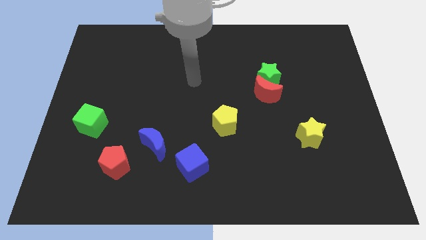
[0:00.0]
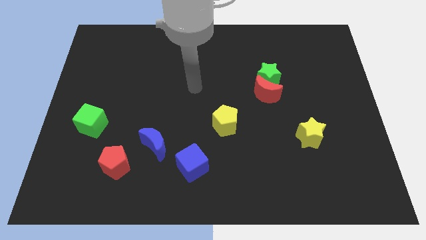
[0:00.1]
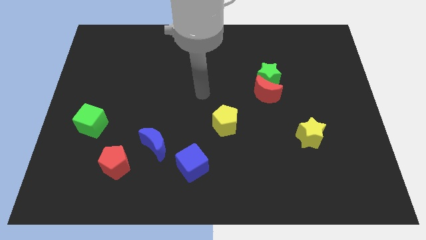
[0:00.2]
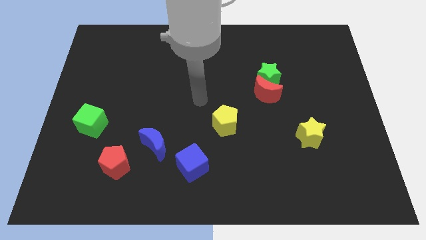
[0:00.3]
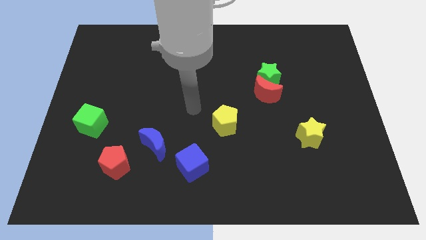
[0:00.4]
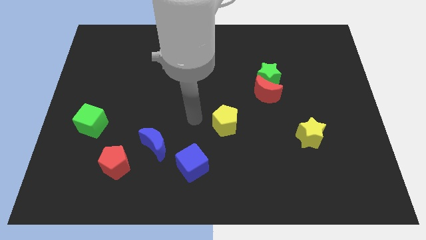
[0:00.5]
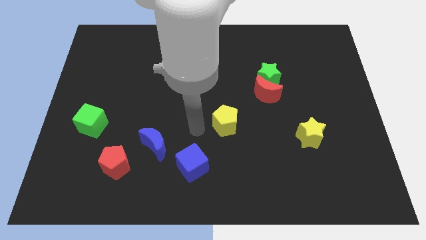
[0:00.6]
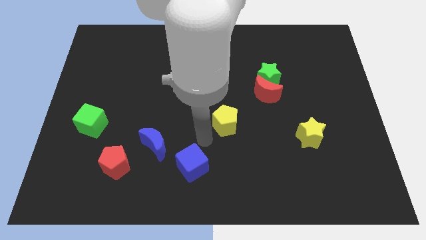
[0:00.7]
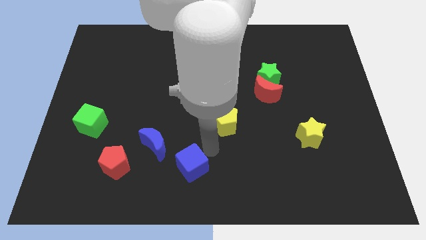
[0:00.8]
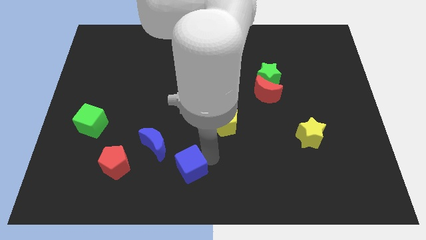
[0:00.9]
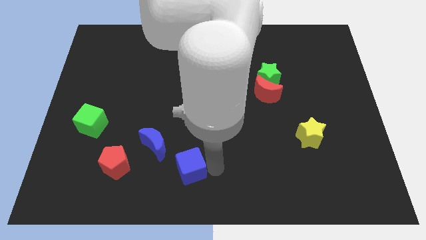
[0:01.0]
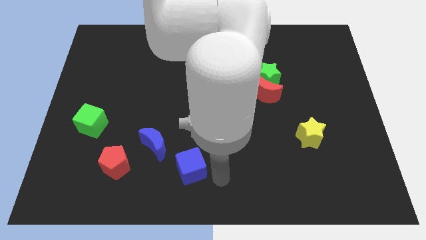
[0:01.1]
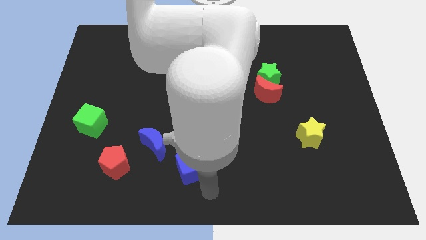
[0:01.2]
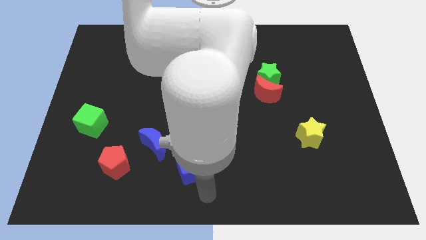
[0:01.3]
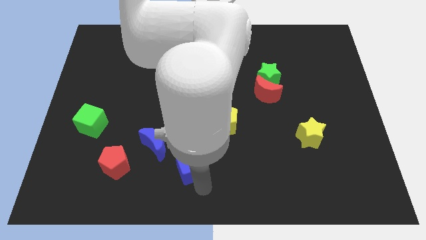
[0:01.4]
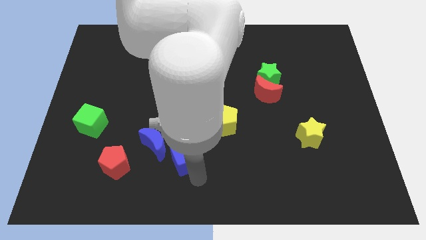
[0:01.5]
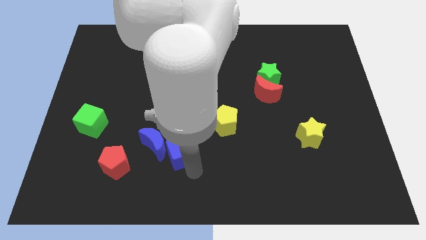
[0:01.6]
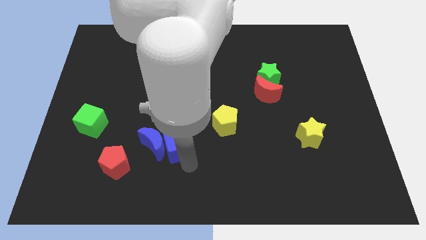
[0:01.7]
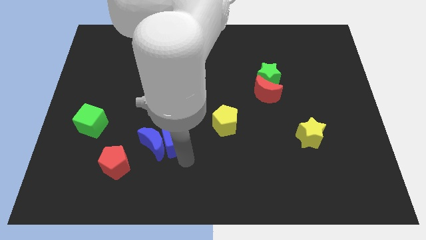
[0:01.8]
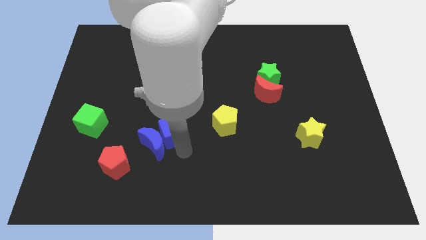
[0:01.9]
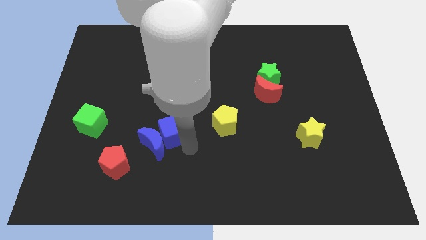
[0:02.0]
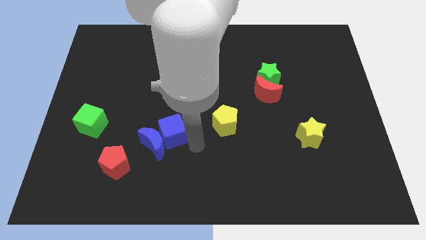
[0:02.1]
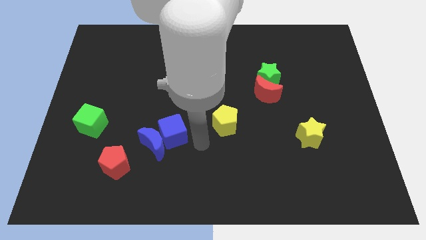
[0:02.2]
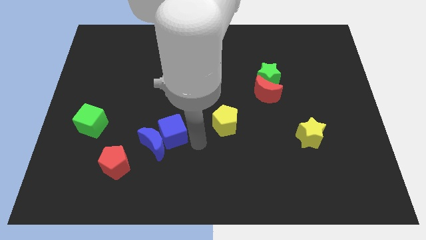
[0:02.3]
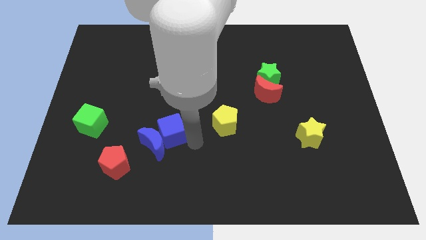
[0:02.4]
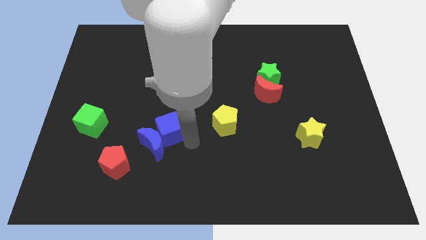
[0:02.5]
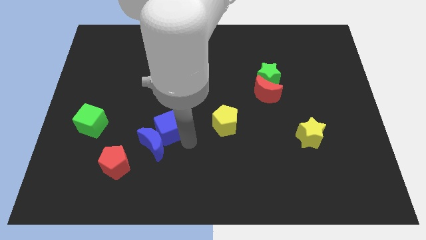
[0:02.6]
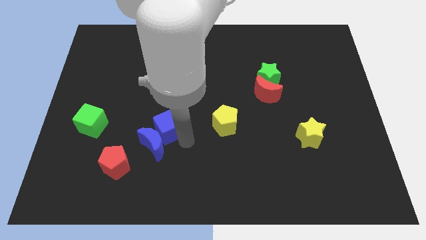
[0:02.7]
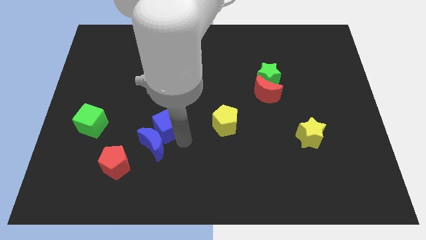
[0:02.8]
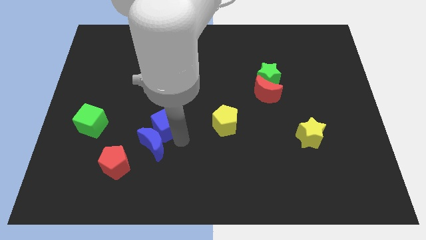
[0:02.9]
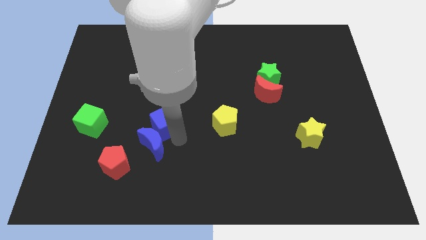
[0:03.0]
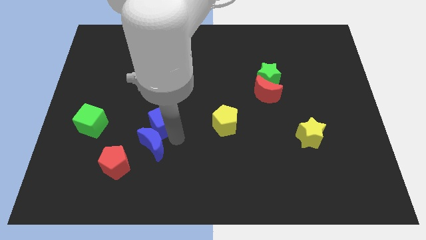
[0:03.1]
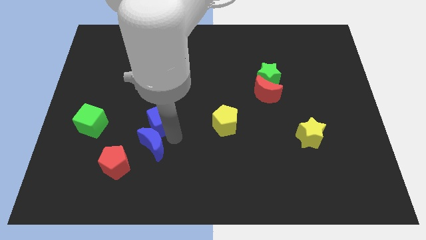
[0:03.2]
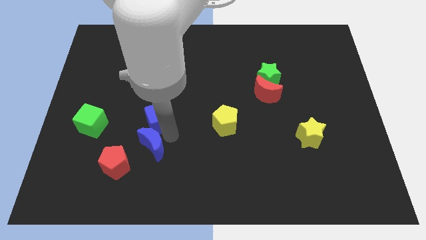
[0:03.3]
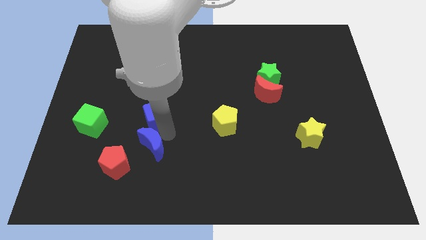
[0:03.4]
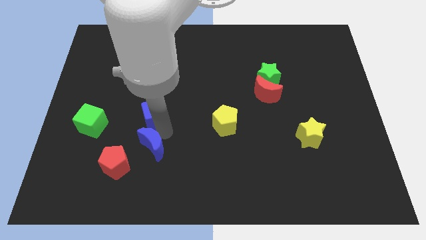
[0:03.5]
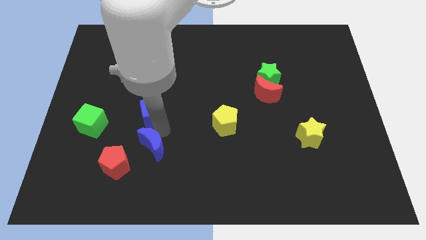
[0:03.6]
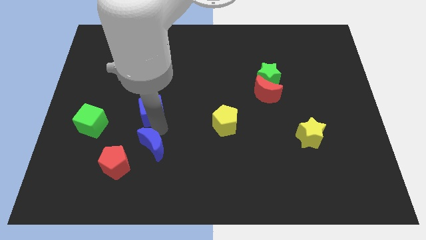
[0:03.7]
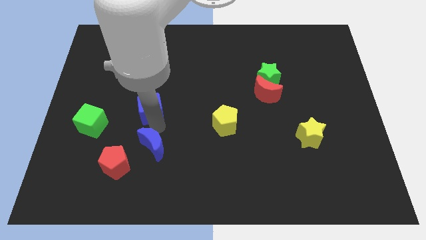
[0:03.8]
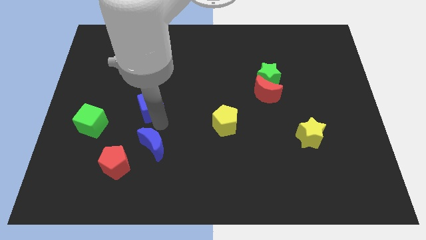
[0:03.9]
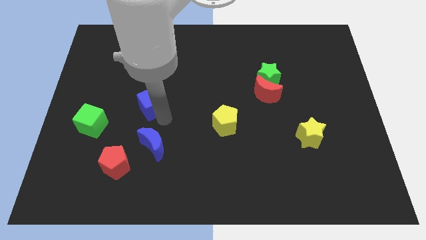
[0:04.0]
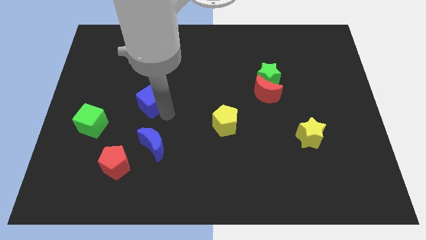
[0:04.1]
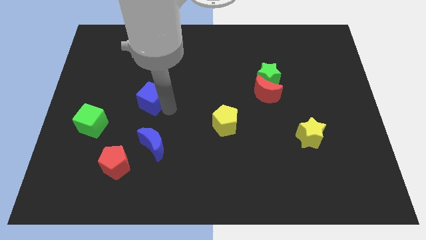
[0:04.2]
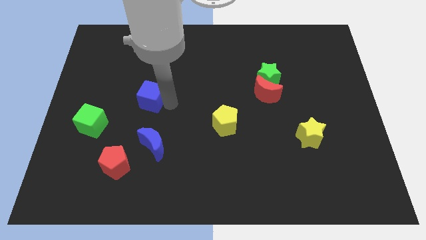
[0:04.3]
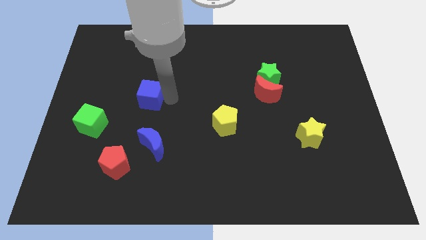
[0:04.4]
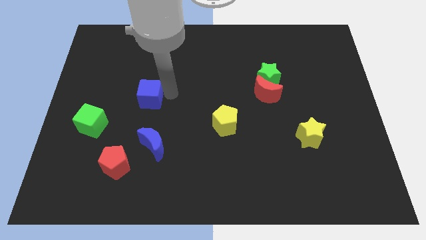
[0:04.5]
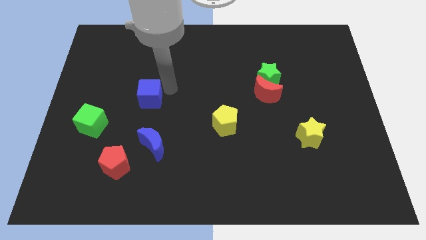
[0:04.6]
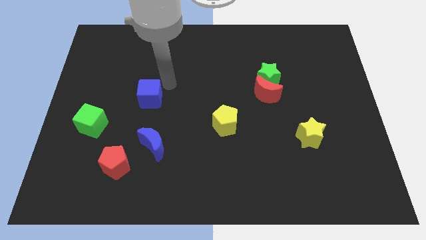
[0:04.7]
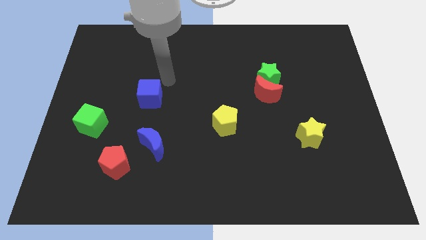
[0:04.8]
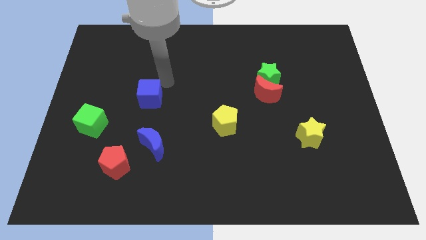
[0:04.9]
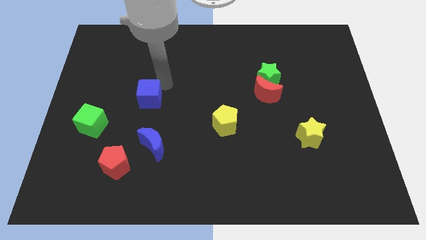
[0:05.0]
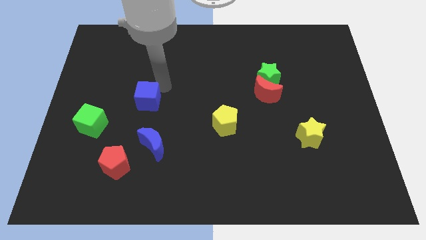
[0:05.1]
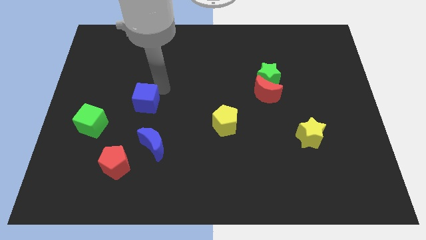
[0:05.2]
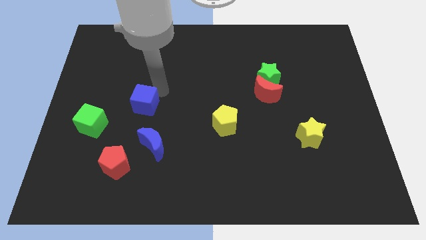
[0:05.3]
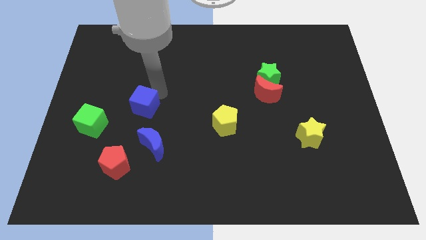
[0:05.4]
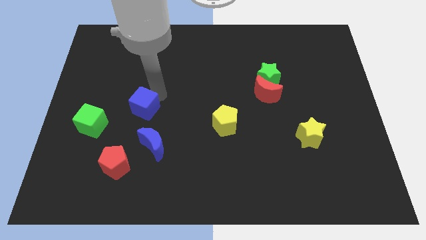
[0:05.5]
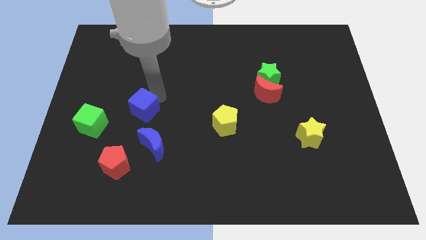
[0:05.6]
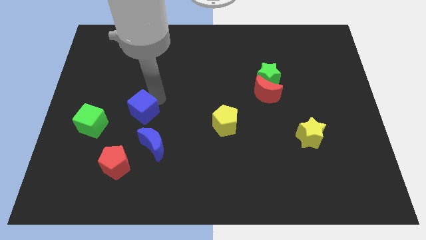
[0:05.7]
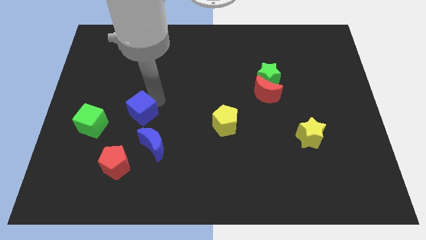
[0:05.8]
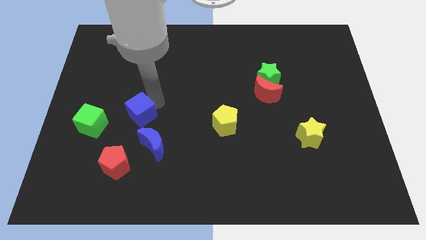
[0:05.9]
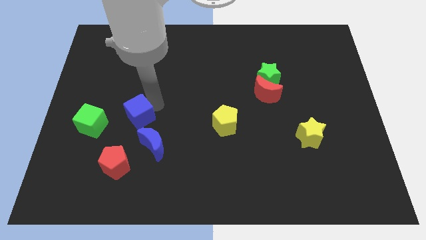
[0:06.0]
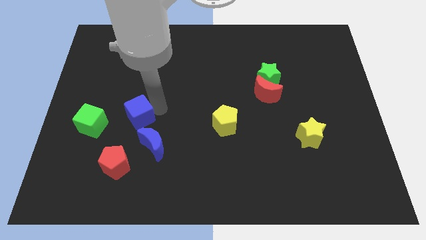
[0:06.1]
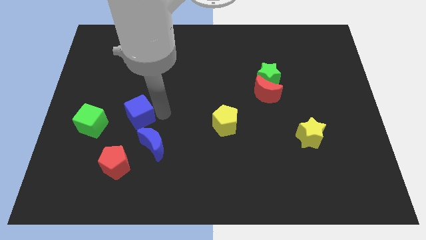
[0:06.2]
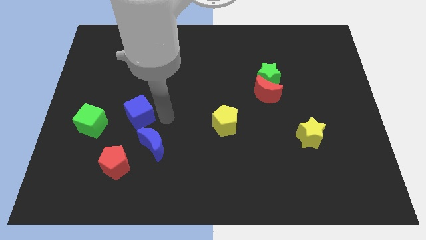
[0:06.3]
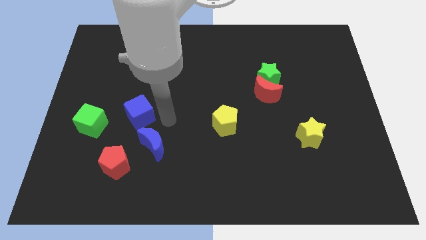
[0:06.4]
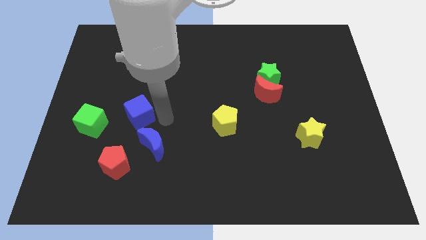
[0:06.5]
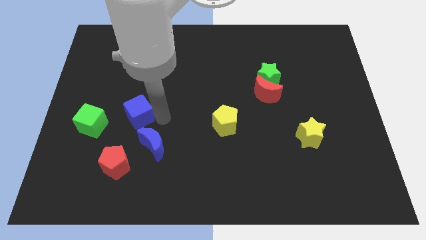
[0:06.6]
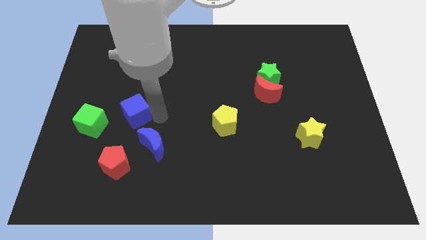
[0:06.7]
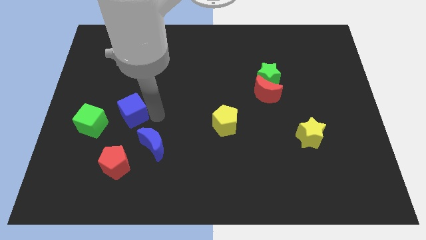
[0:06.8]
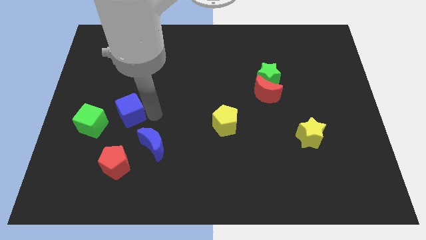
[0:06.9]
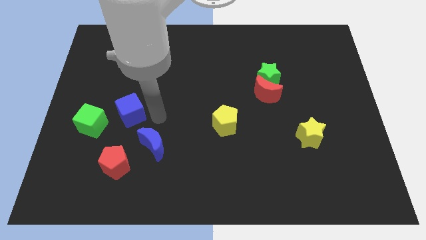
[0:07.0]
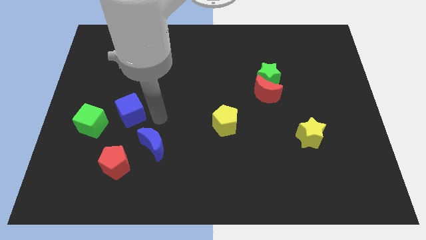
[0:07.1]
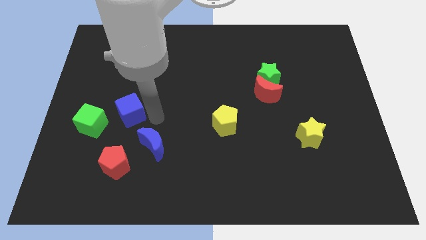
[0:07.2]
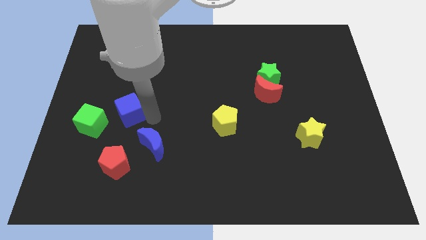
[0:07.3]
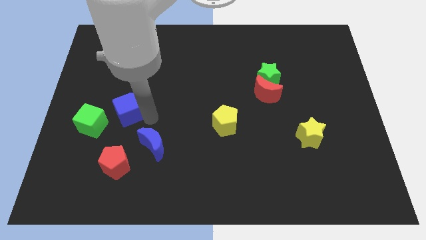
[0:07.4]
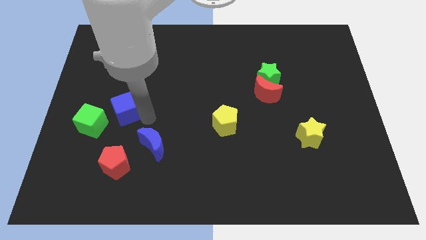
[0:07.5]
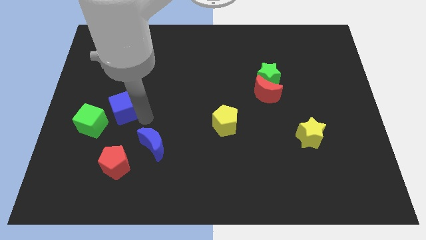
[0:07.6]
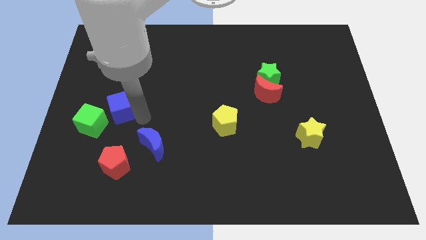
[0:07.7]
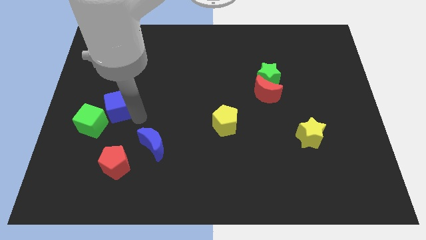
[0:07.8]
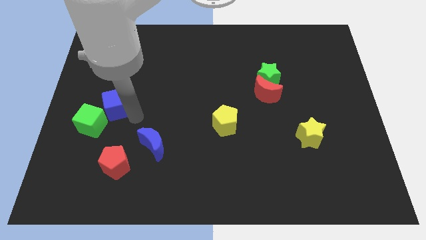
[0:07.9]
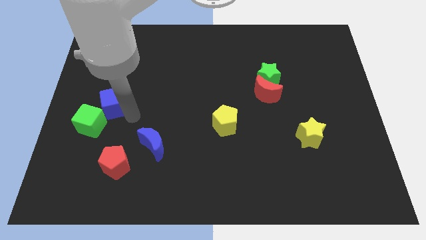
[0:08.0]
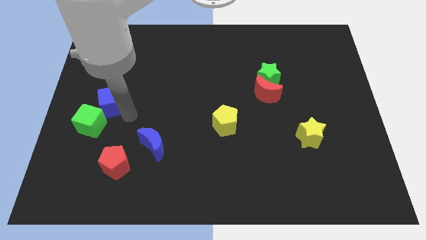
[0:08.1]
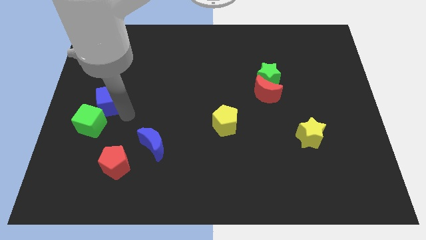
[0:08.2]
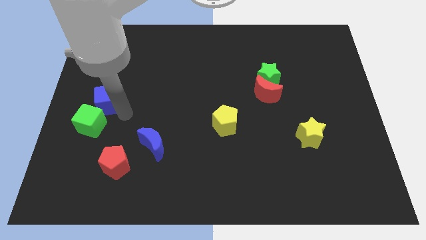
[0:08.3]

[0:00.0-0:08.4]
put the blue cube to the center left
